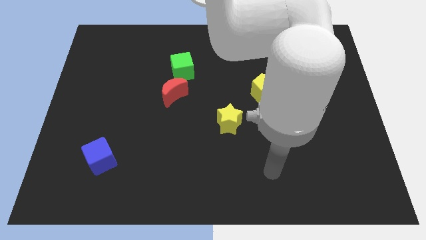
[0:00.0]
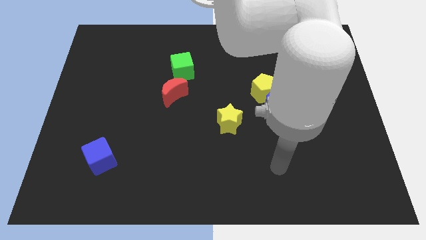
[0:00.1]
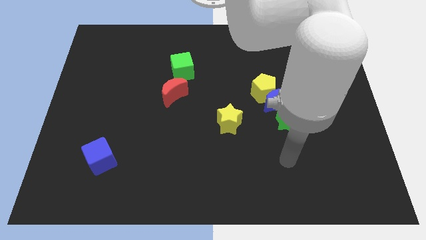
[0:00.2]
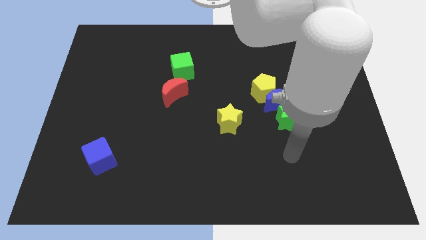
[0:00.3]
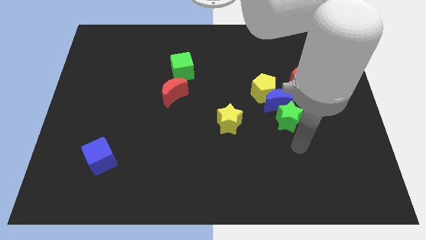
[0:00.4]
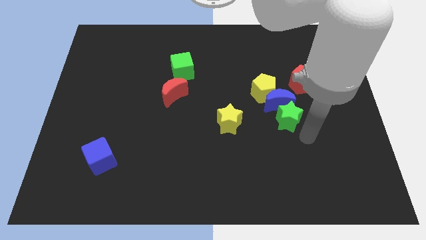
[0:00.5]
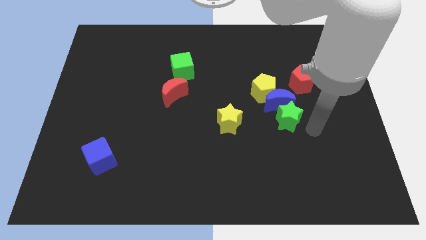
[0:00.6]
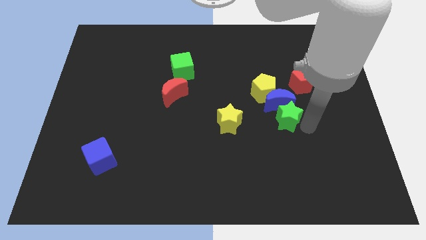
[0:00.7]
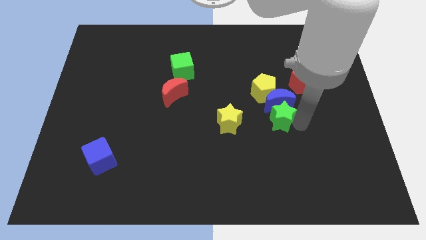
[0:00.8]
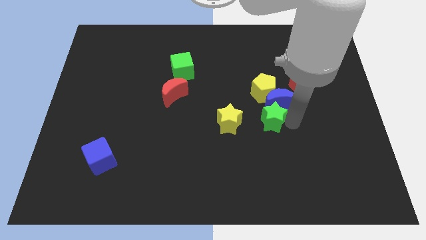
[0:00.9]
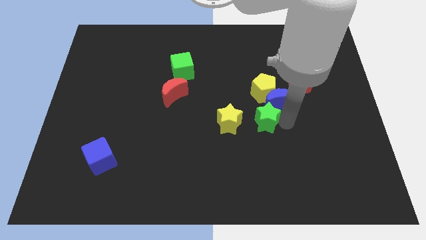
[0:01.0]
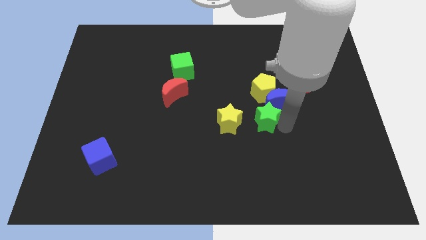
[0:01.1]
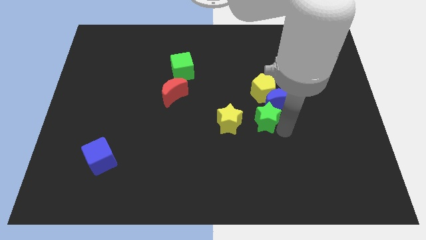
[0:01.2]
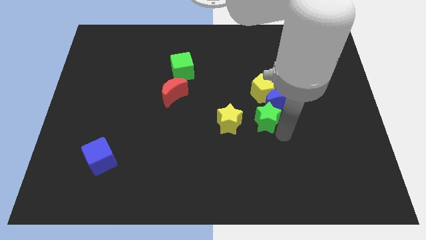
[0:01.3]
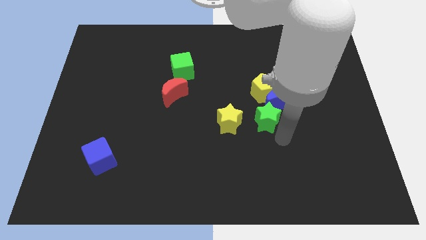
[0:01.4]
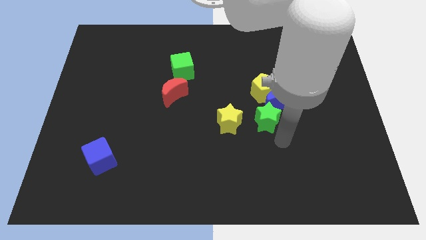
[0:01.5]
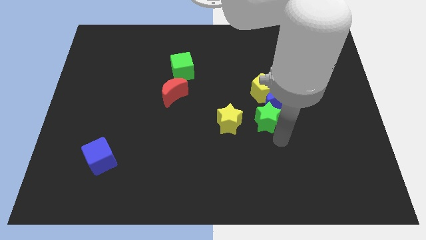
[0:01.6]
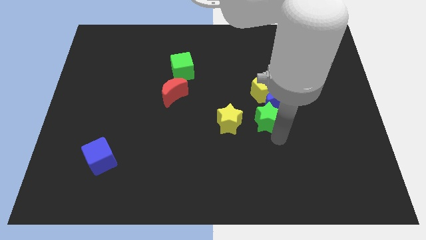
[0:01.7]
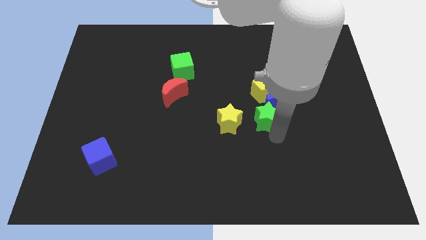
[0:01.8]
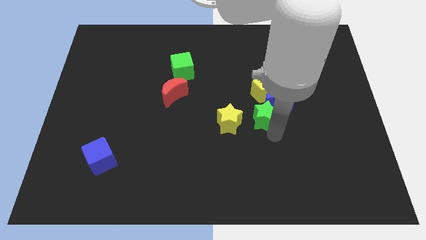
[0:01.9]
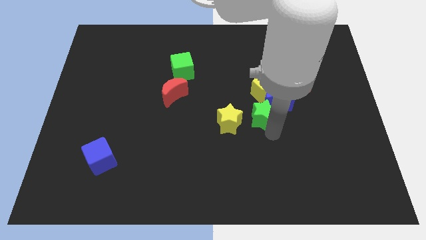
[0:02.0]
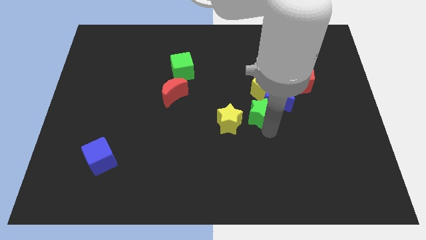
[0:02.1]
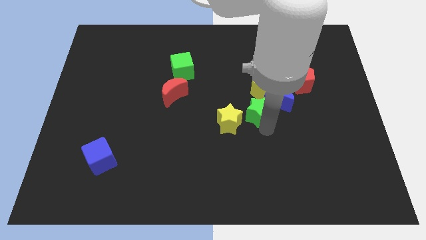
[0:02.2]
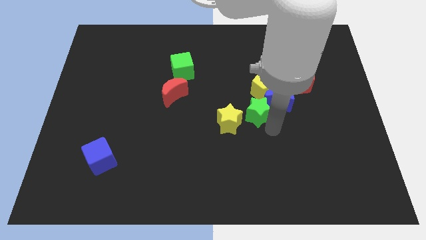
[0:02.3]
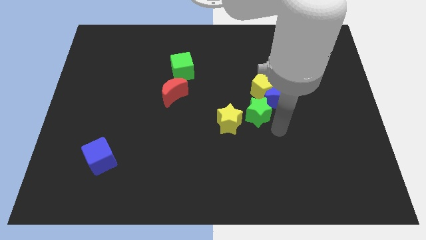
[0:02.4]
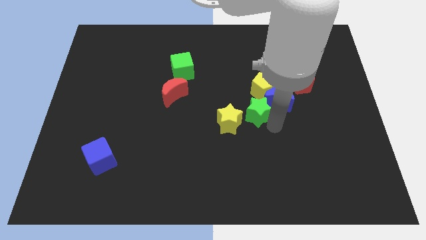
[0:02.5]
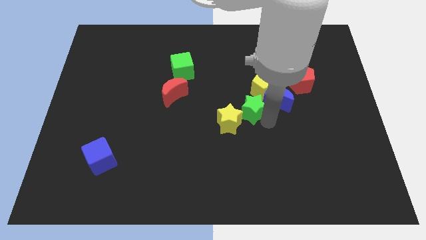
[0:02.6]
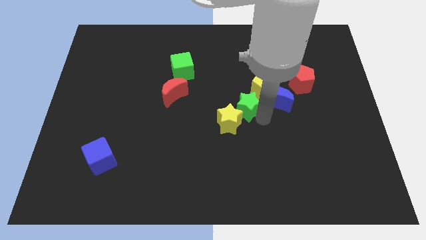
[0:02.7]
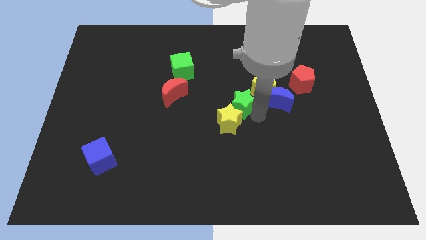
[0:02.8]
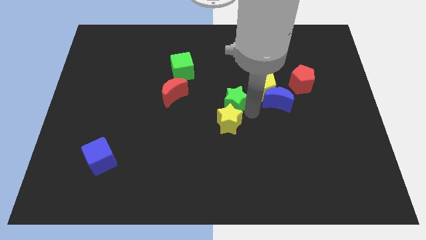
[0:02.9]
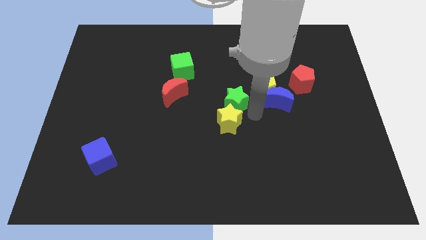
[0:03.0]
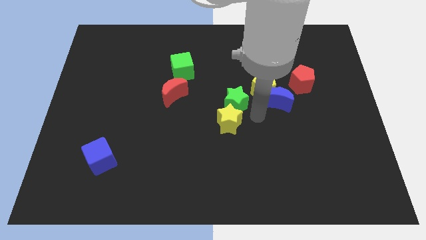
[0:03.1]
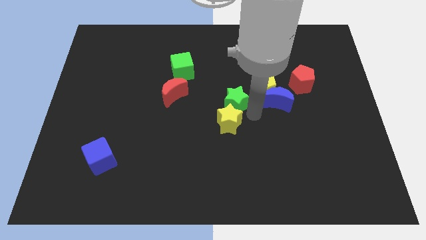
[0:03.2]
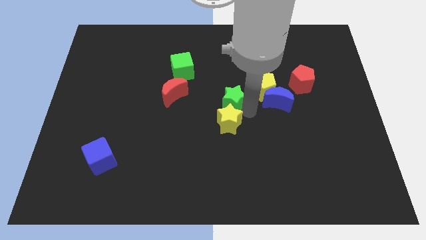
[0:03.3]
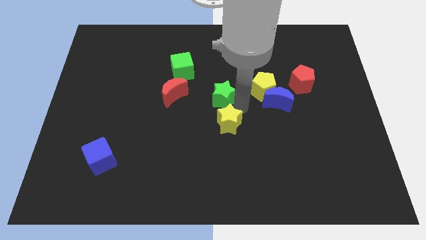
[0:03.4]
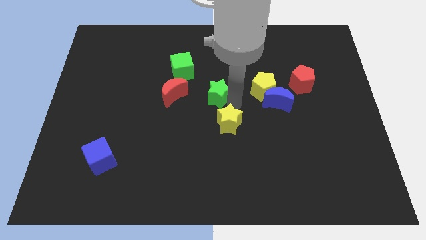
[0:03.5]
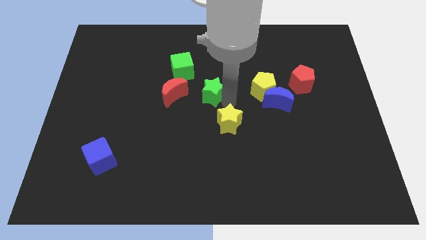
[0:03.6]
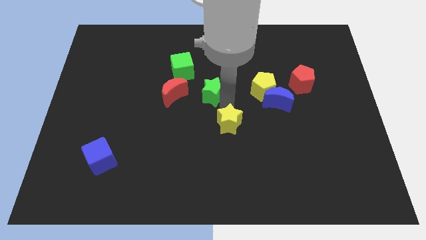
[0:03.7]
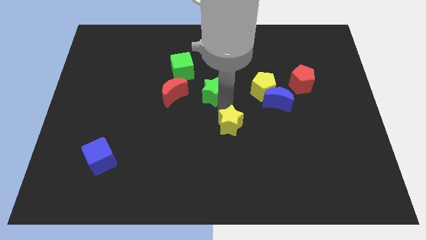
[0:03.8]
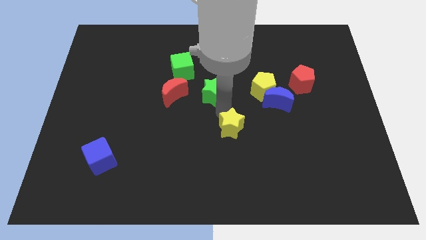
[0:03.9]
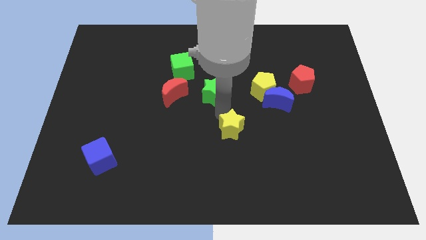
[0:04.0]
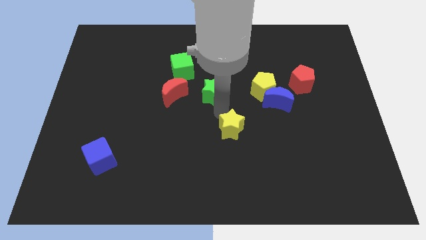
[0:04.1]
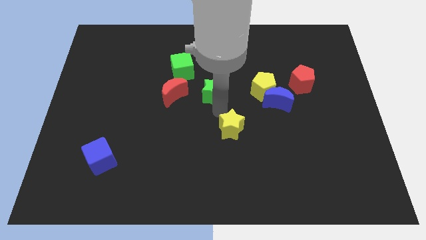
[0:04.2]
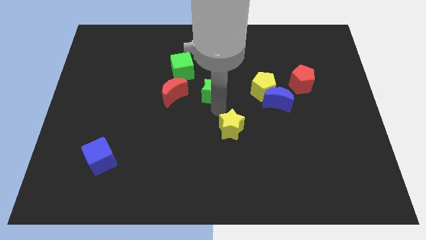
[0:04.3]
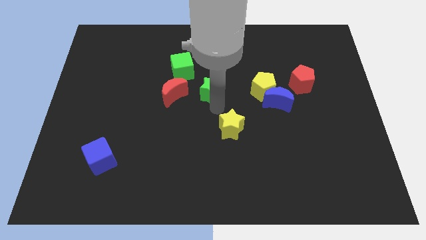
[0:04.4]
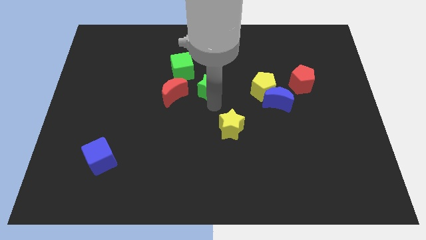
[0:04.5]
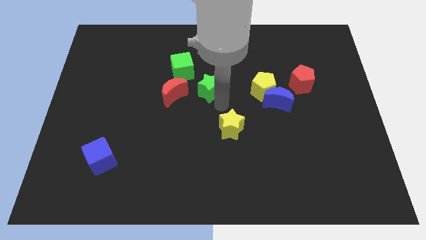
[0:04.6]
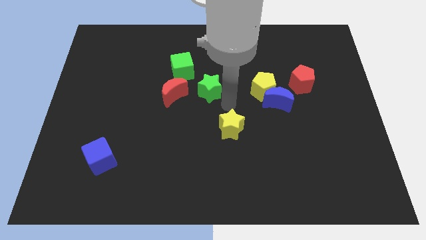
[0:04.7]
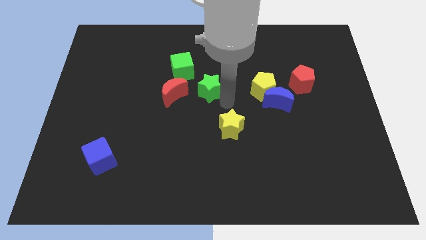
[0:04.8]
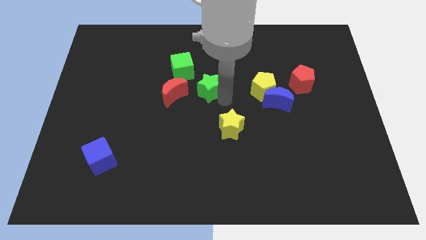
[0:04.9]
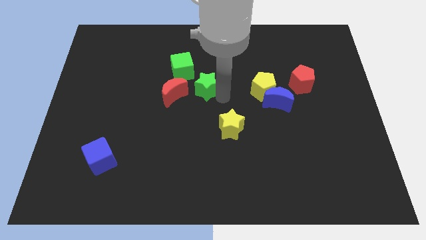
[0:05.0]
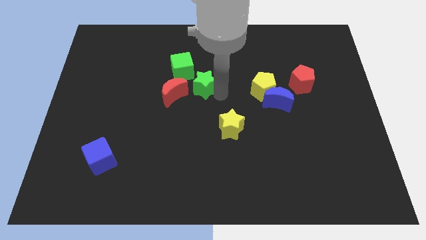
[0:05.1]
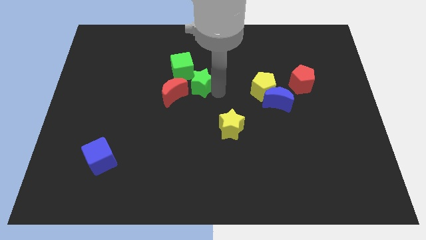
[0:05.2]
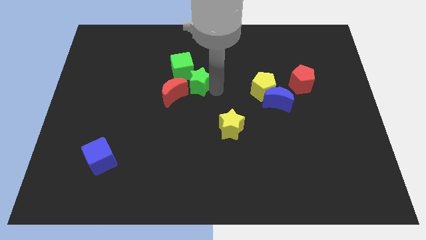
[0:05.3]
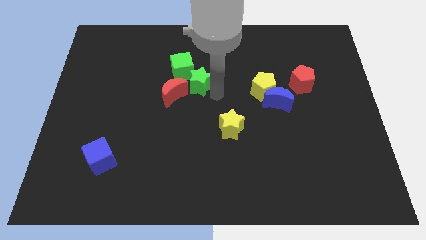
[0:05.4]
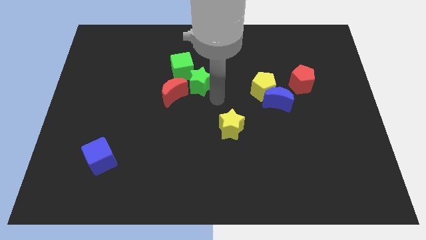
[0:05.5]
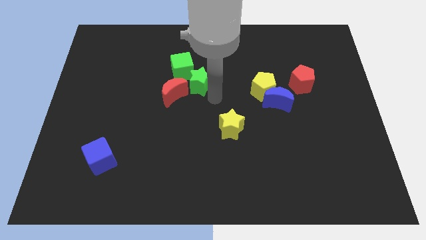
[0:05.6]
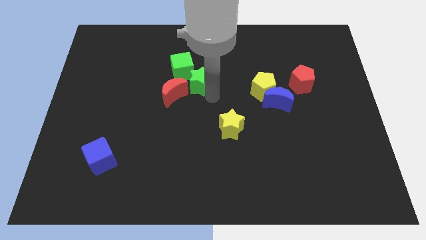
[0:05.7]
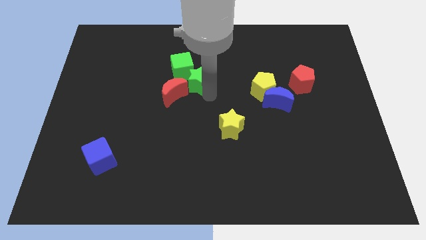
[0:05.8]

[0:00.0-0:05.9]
move the green star to the green cube

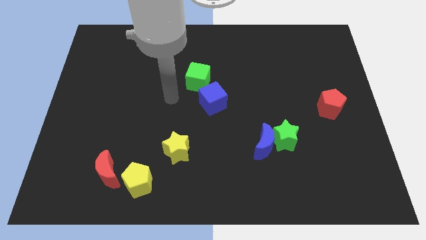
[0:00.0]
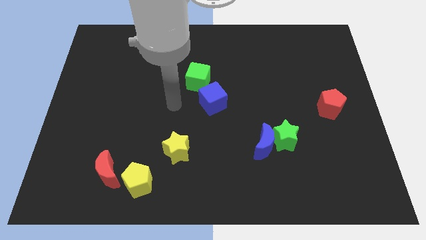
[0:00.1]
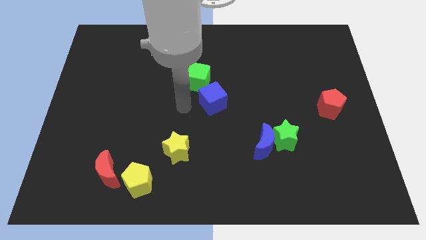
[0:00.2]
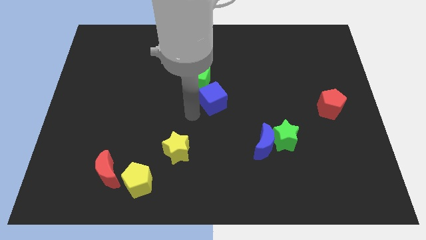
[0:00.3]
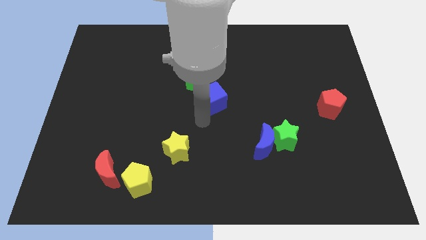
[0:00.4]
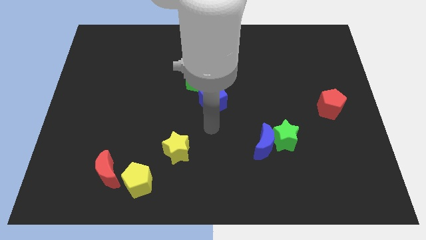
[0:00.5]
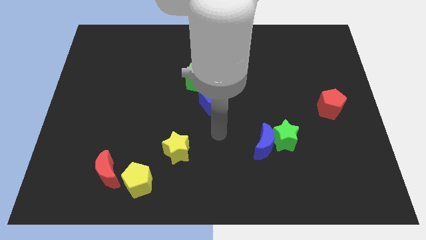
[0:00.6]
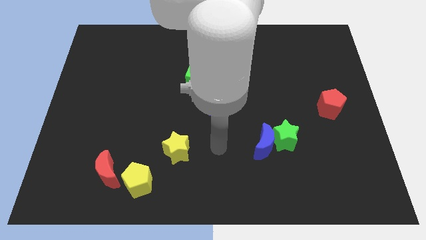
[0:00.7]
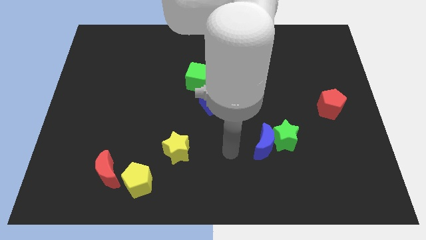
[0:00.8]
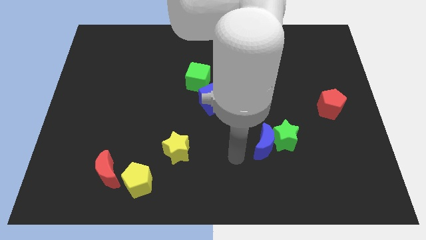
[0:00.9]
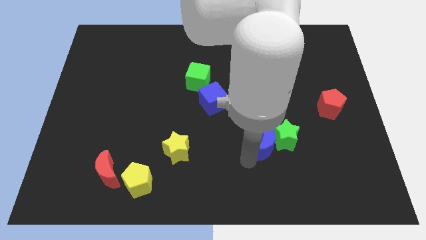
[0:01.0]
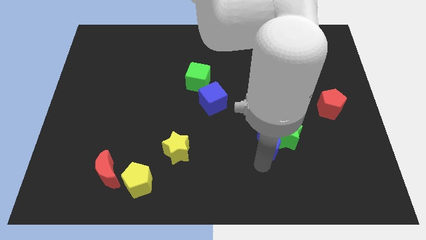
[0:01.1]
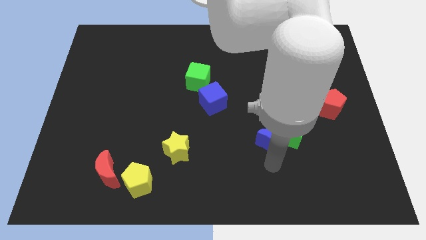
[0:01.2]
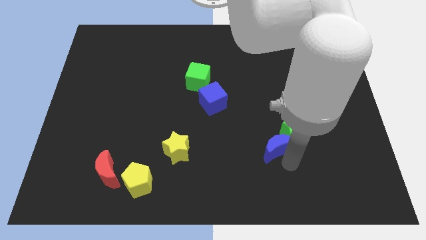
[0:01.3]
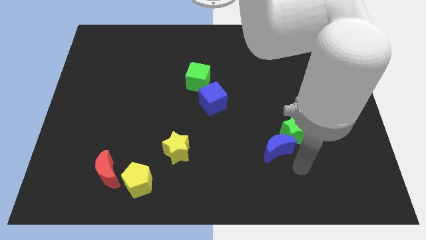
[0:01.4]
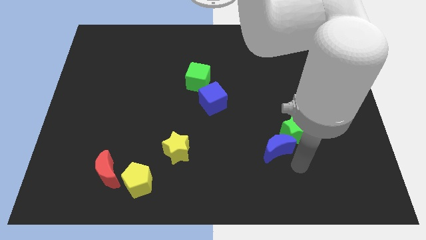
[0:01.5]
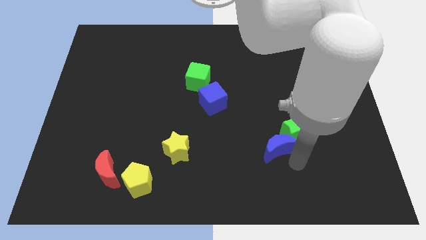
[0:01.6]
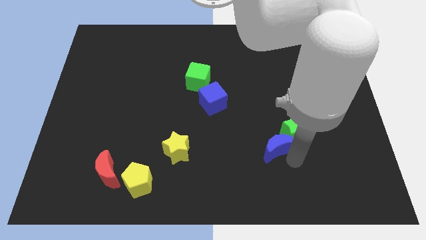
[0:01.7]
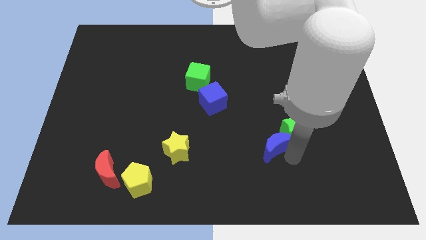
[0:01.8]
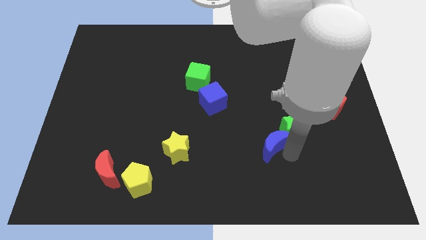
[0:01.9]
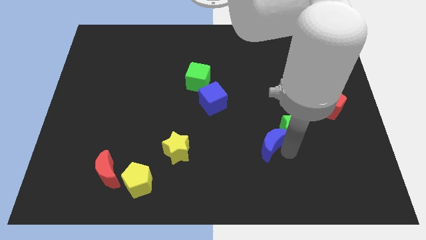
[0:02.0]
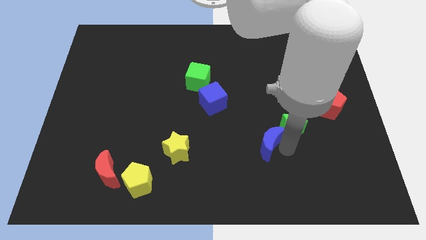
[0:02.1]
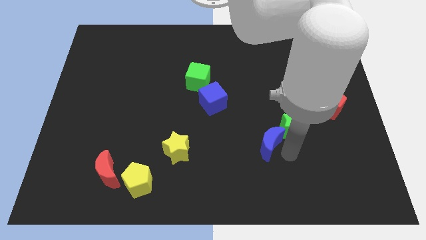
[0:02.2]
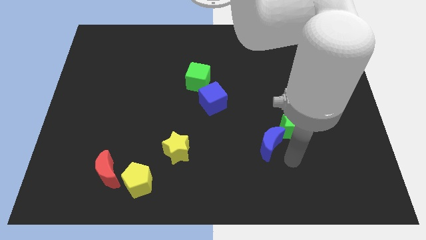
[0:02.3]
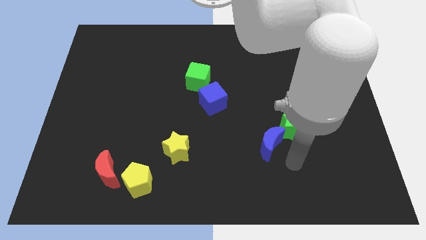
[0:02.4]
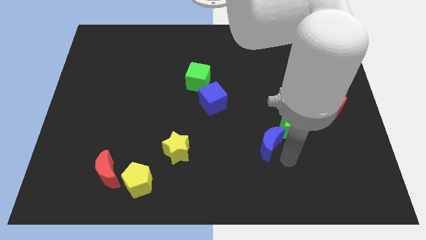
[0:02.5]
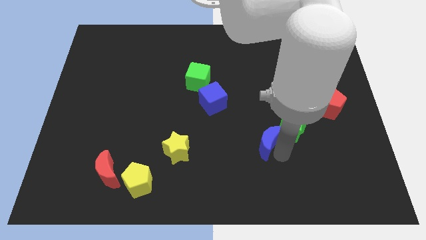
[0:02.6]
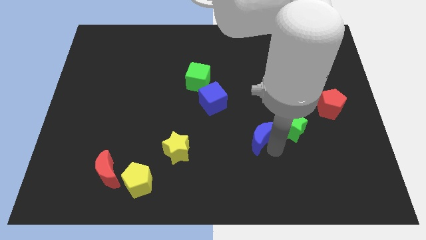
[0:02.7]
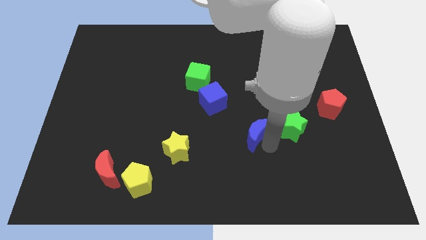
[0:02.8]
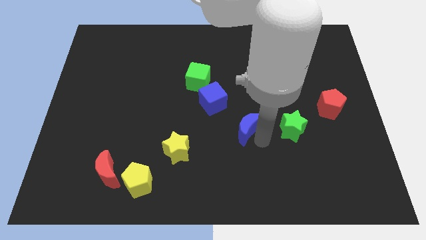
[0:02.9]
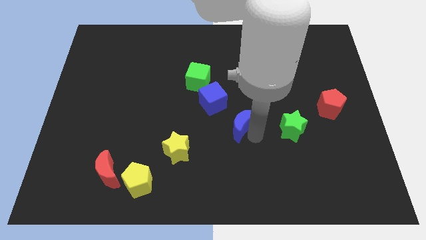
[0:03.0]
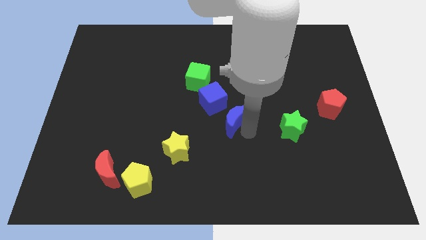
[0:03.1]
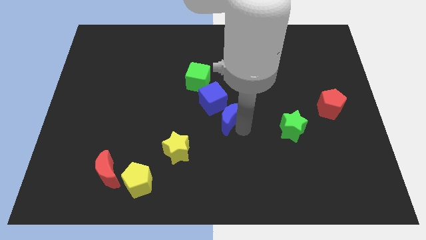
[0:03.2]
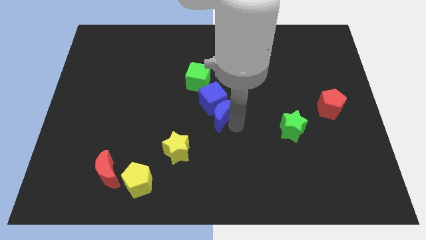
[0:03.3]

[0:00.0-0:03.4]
move the blue moon to the blue cube
